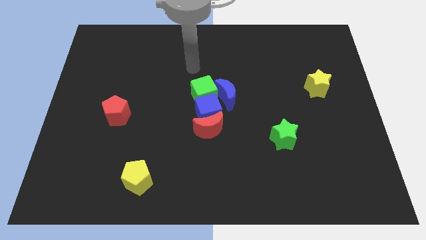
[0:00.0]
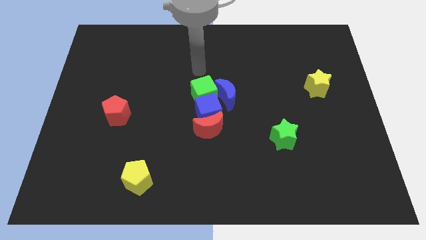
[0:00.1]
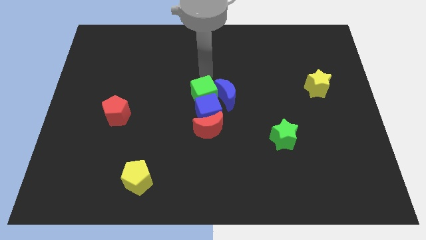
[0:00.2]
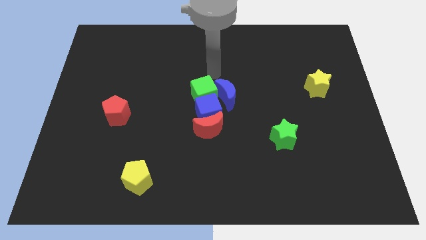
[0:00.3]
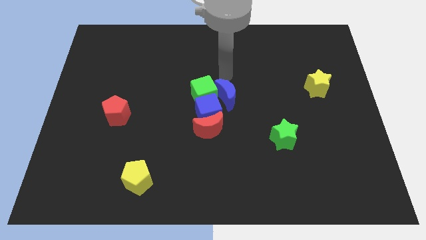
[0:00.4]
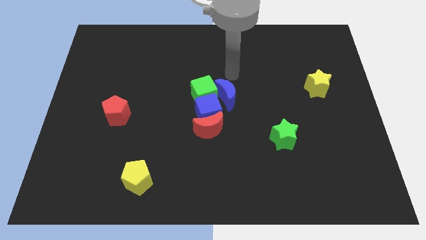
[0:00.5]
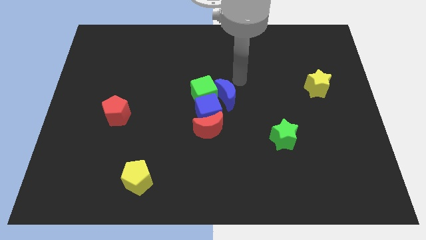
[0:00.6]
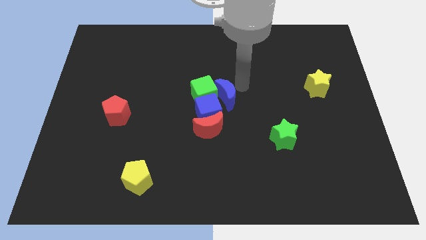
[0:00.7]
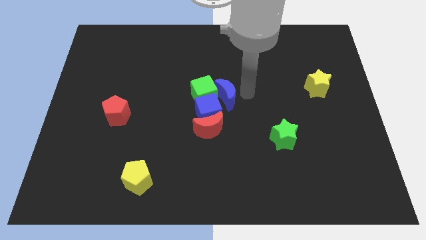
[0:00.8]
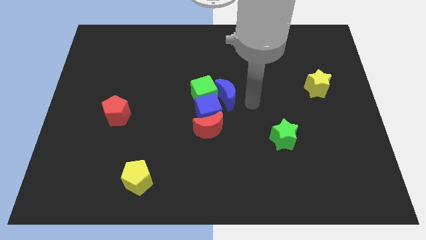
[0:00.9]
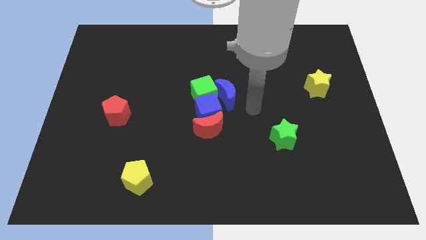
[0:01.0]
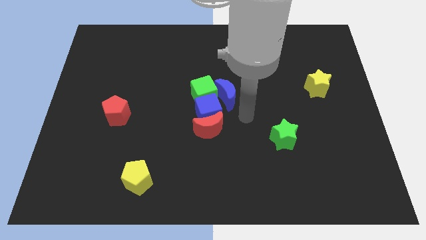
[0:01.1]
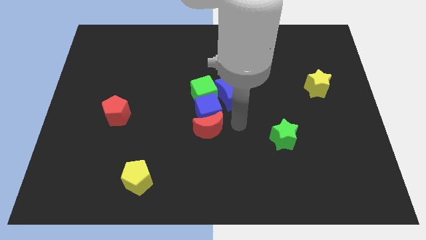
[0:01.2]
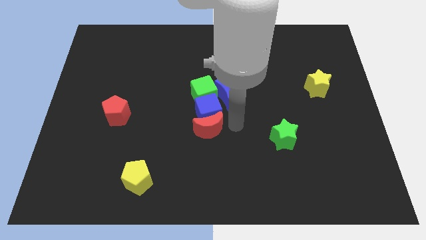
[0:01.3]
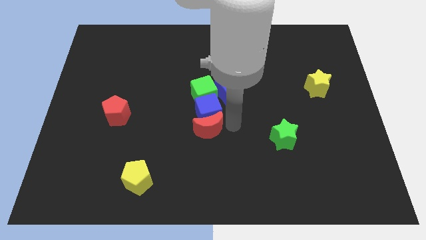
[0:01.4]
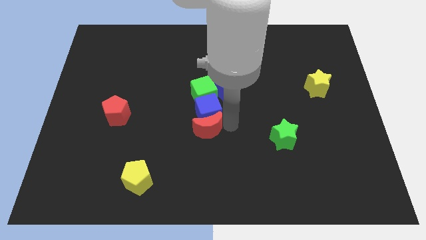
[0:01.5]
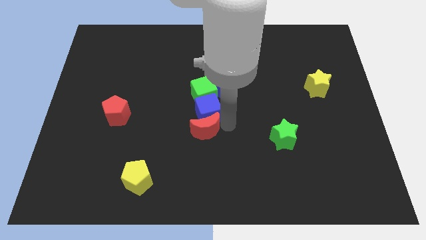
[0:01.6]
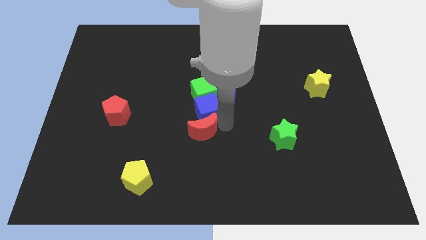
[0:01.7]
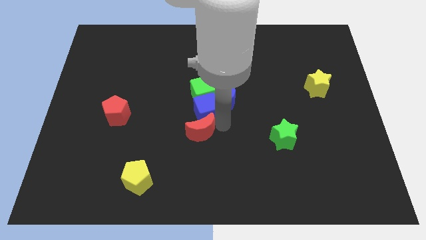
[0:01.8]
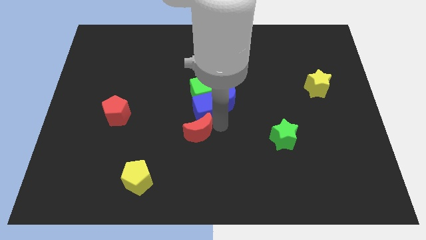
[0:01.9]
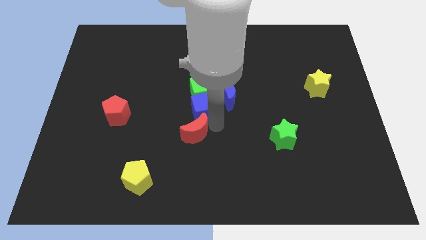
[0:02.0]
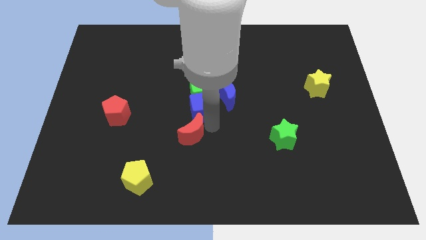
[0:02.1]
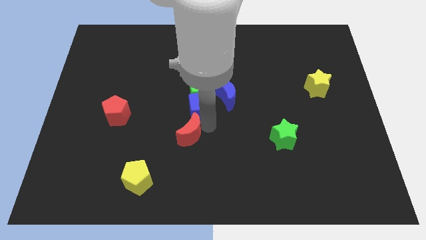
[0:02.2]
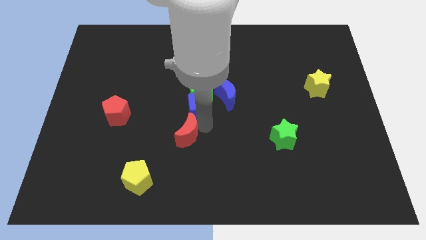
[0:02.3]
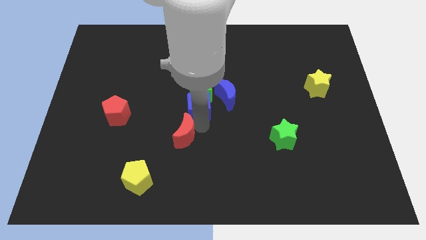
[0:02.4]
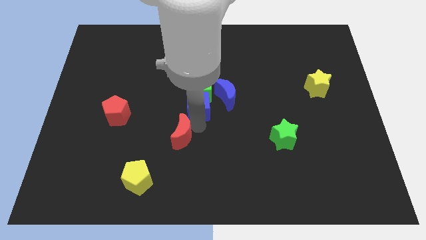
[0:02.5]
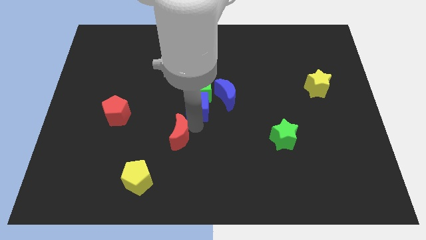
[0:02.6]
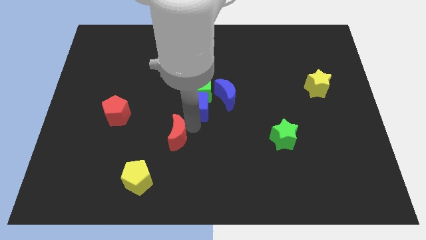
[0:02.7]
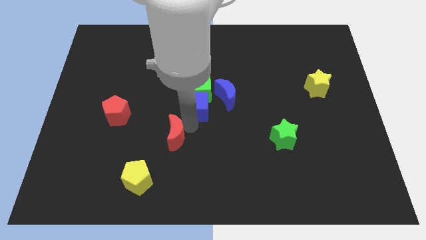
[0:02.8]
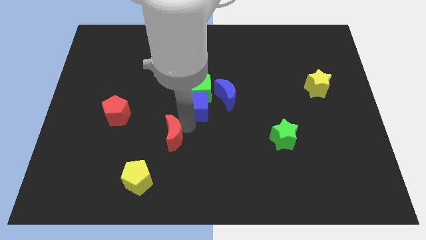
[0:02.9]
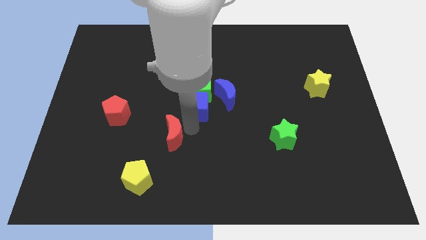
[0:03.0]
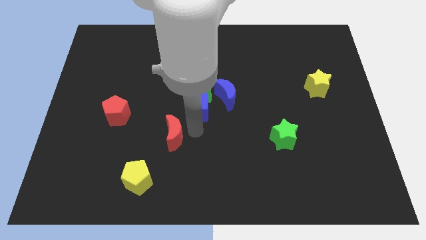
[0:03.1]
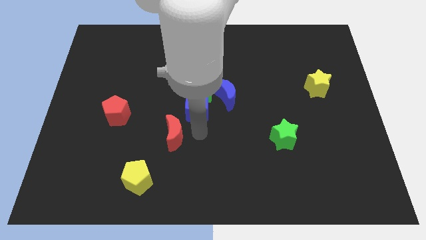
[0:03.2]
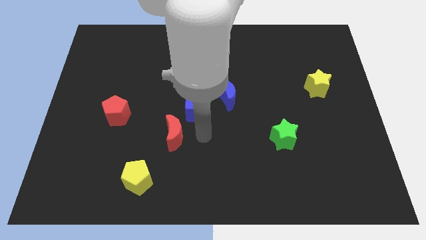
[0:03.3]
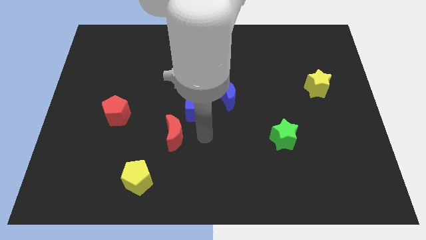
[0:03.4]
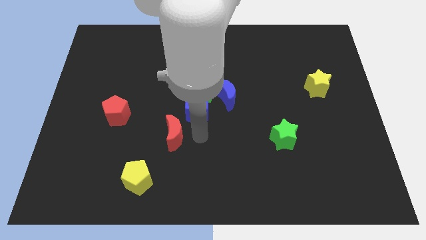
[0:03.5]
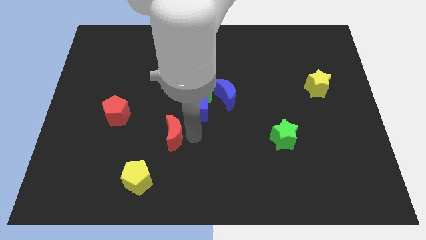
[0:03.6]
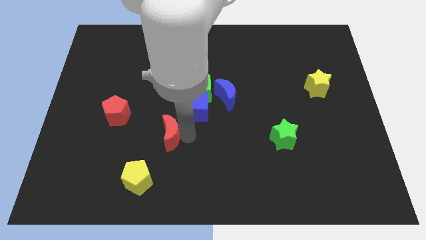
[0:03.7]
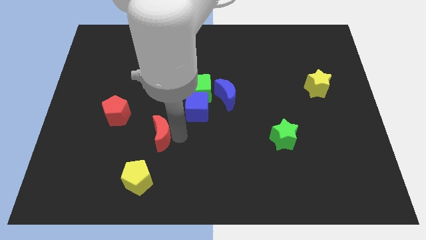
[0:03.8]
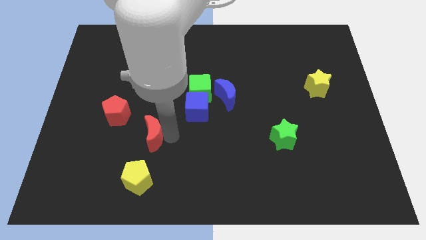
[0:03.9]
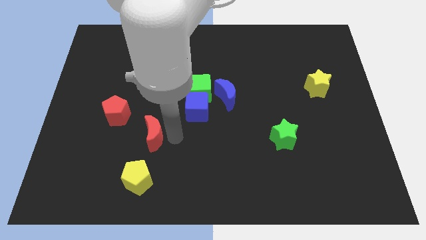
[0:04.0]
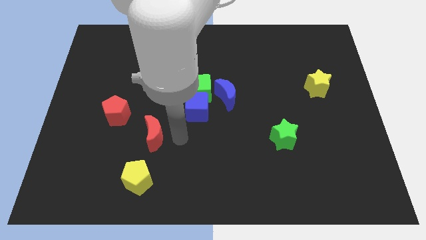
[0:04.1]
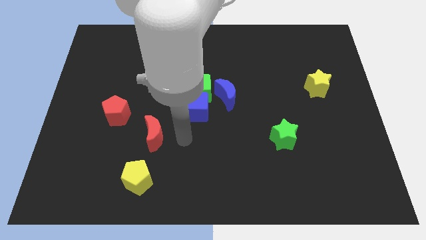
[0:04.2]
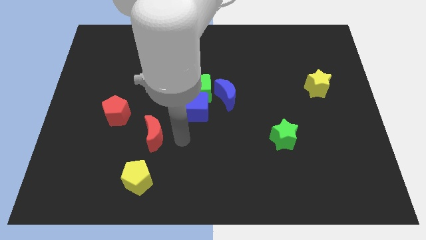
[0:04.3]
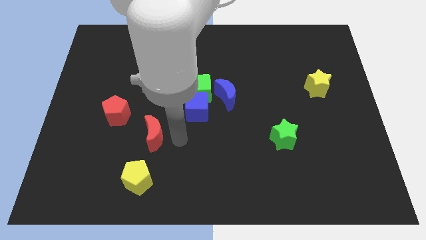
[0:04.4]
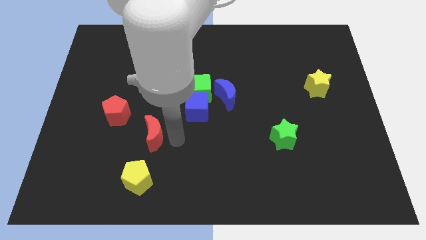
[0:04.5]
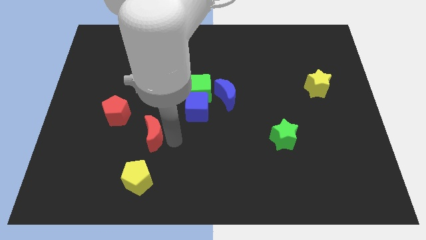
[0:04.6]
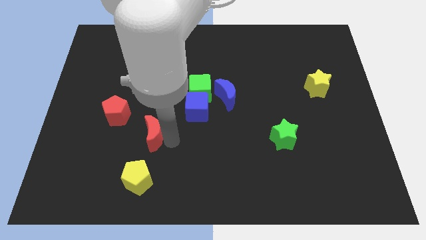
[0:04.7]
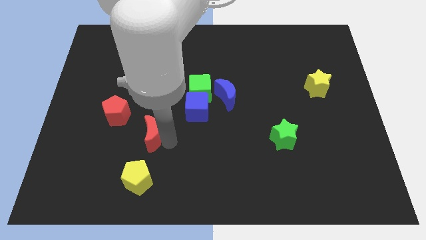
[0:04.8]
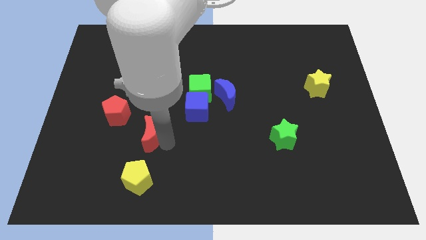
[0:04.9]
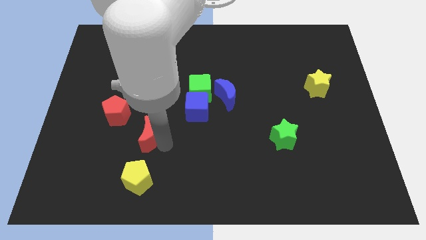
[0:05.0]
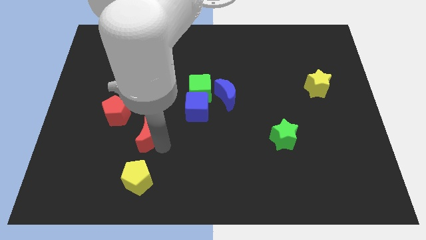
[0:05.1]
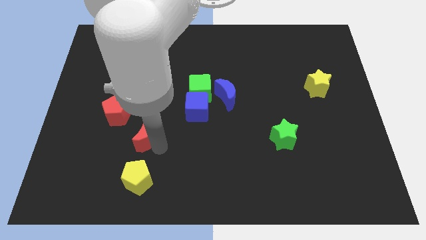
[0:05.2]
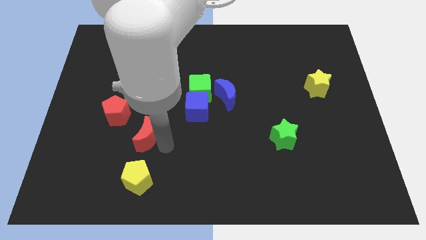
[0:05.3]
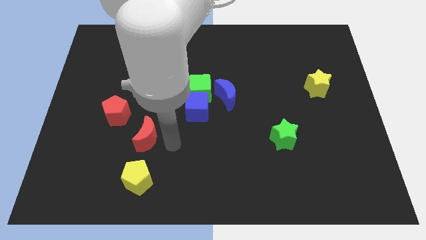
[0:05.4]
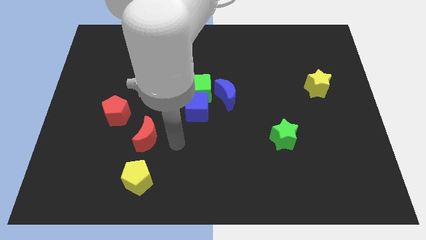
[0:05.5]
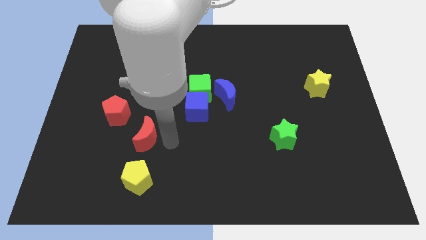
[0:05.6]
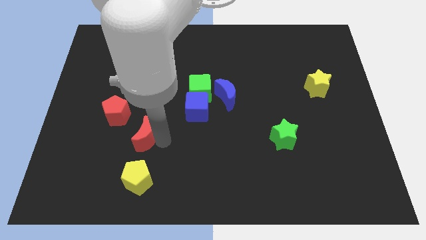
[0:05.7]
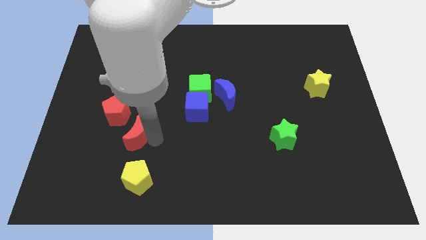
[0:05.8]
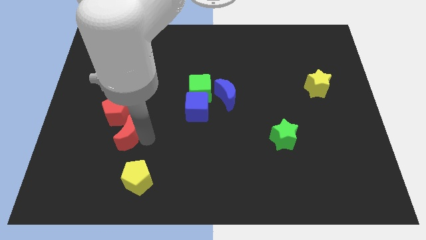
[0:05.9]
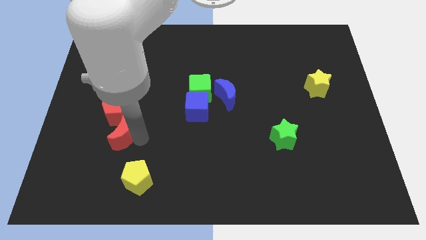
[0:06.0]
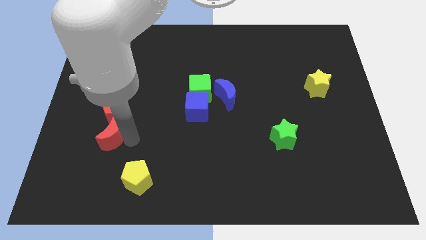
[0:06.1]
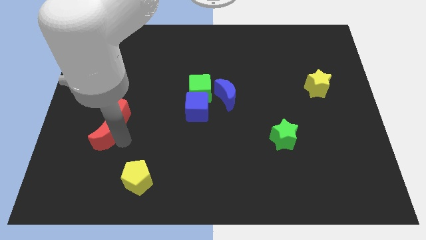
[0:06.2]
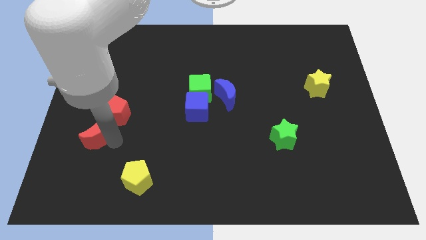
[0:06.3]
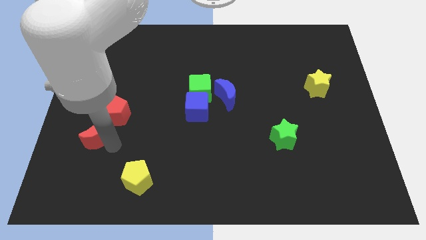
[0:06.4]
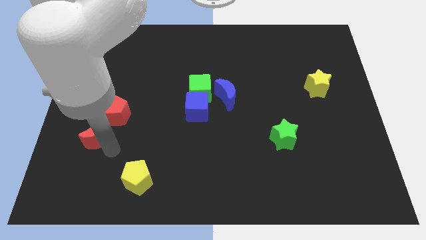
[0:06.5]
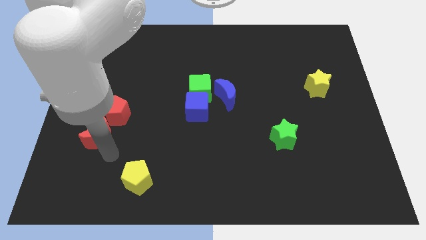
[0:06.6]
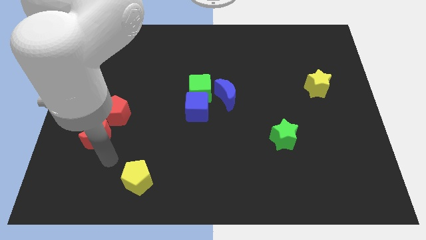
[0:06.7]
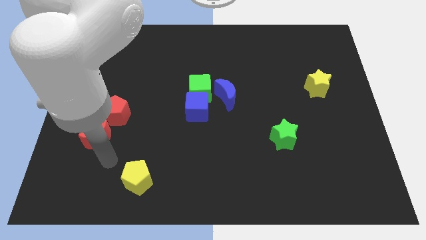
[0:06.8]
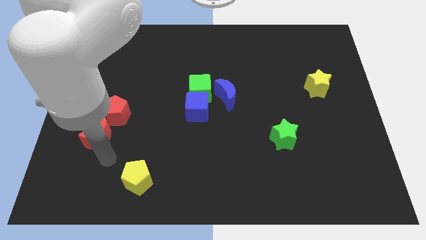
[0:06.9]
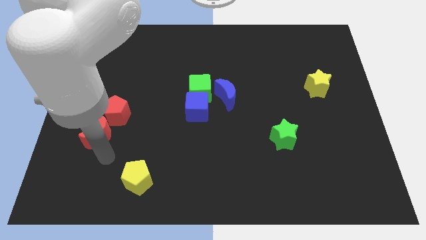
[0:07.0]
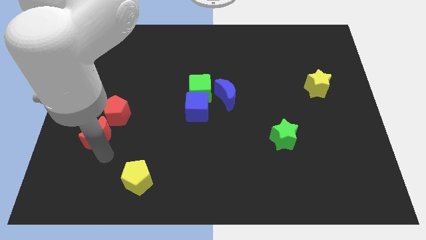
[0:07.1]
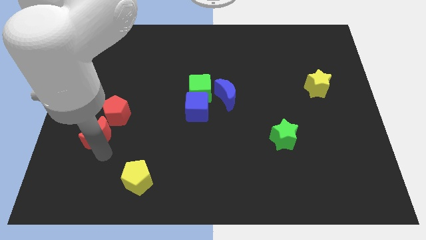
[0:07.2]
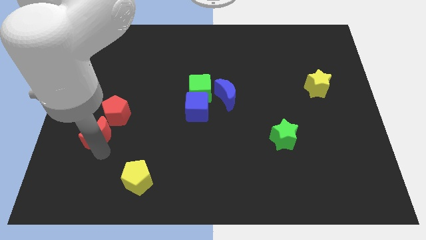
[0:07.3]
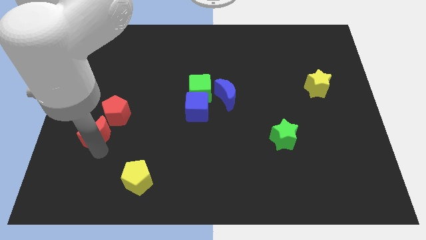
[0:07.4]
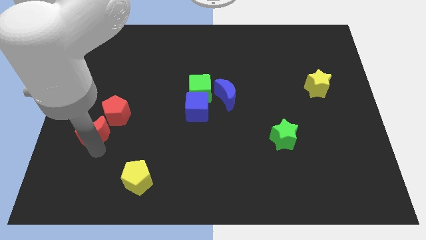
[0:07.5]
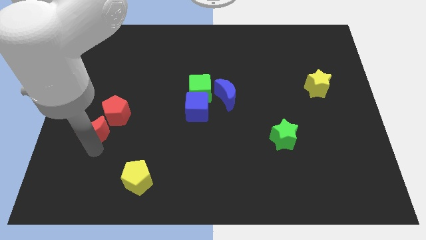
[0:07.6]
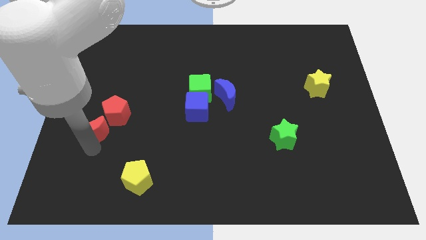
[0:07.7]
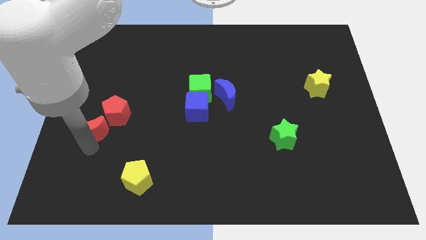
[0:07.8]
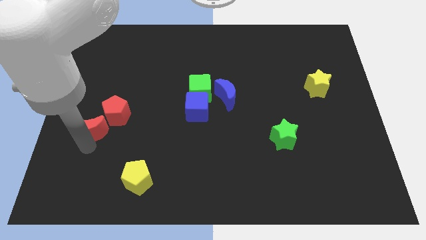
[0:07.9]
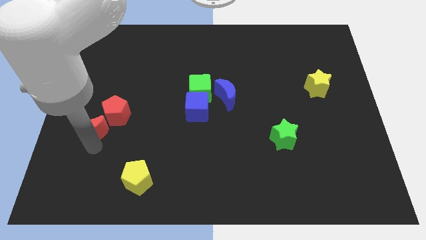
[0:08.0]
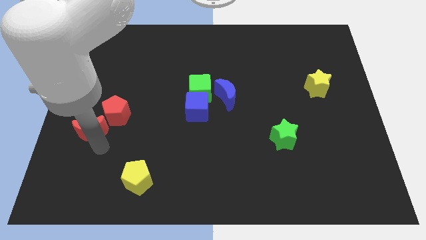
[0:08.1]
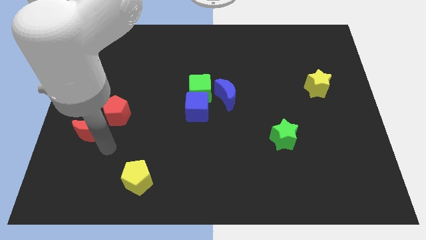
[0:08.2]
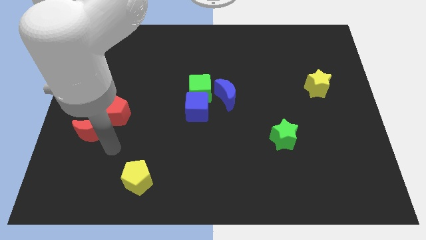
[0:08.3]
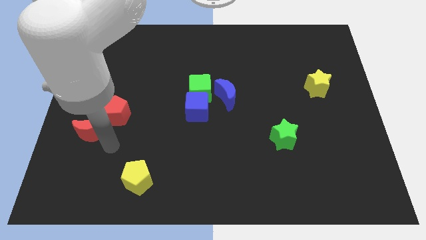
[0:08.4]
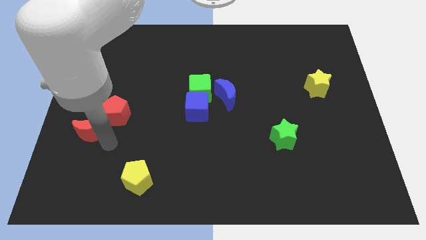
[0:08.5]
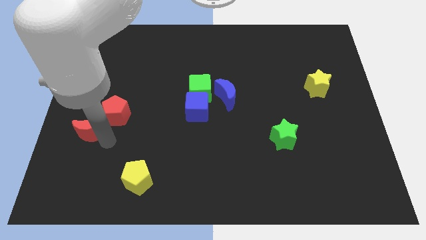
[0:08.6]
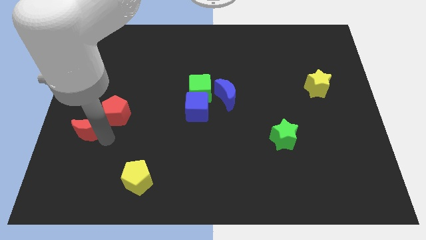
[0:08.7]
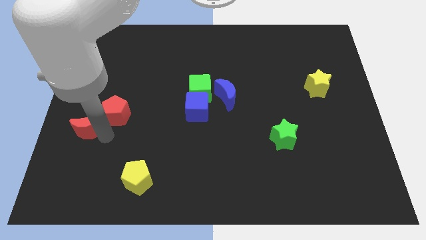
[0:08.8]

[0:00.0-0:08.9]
slide the red moon to the center left
